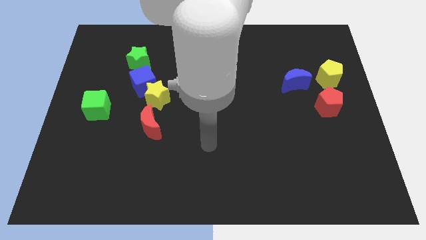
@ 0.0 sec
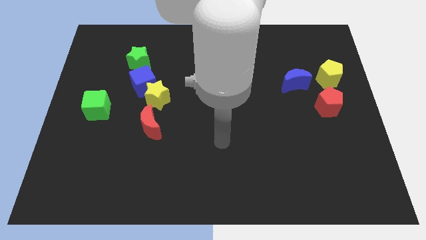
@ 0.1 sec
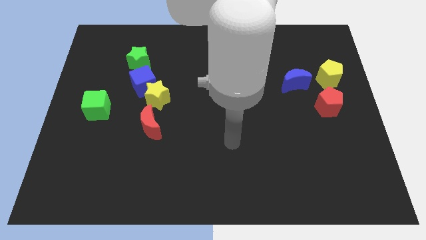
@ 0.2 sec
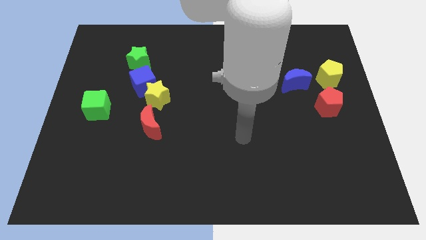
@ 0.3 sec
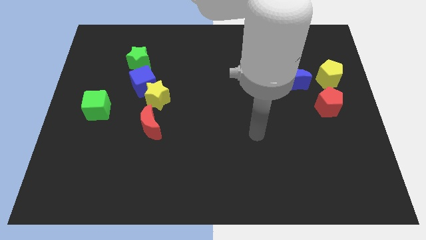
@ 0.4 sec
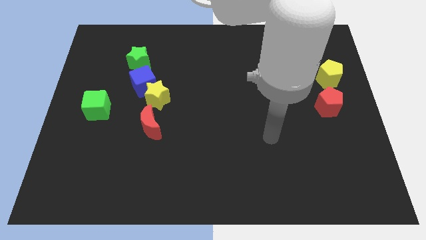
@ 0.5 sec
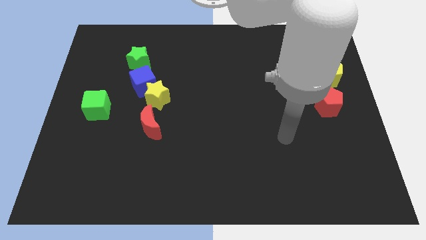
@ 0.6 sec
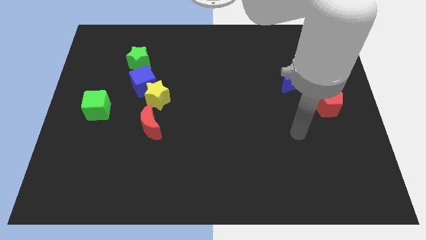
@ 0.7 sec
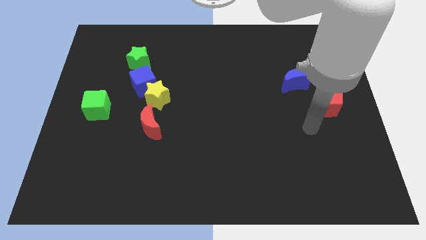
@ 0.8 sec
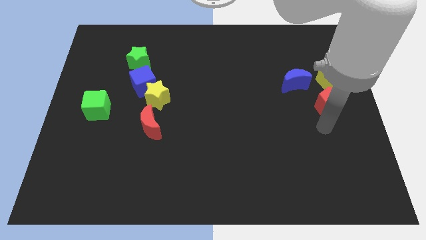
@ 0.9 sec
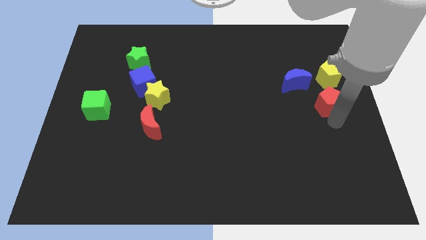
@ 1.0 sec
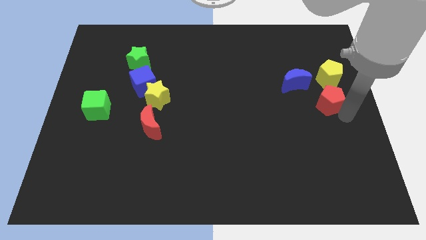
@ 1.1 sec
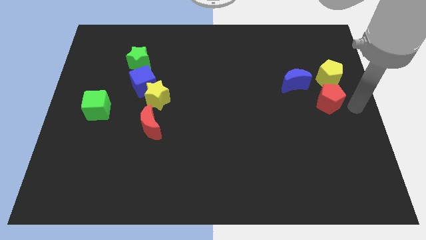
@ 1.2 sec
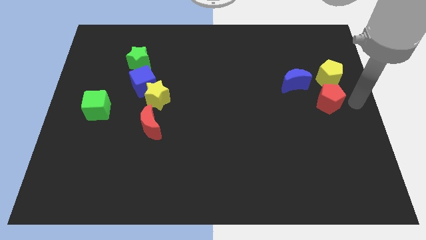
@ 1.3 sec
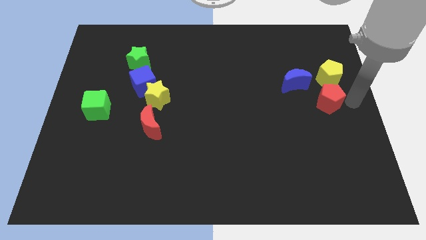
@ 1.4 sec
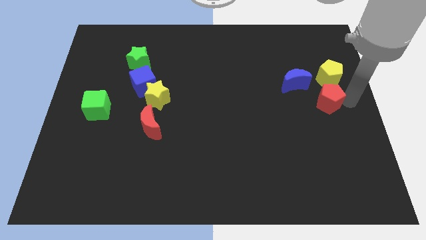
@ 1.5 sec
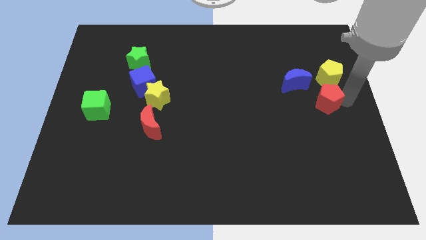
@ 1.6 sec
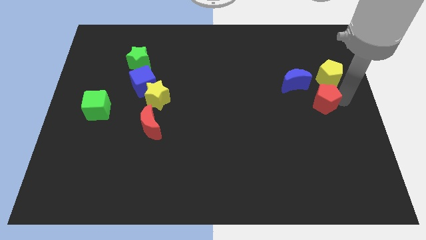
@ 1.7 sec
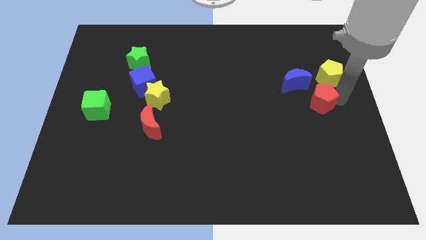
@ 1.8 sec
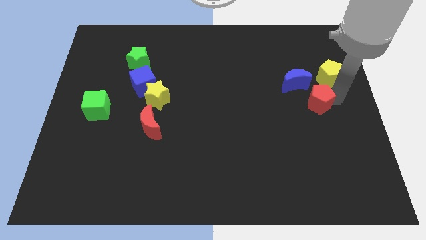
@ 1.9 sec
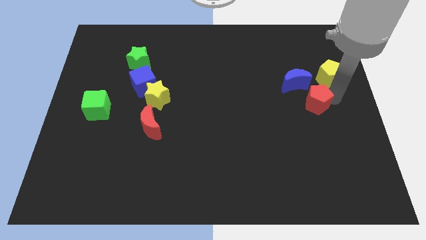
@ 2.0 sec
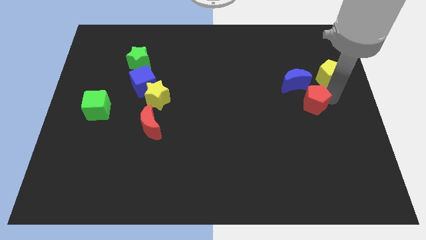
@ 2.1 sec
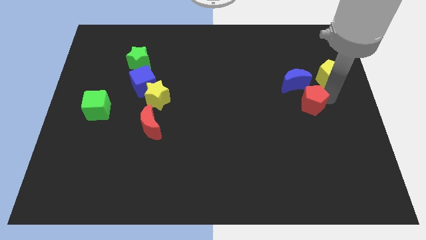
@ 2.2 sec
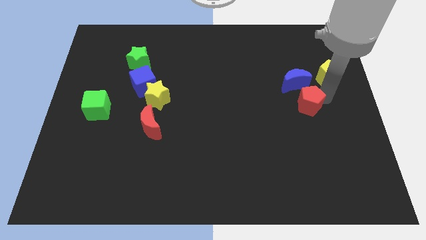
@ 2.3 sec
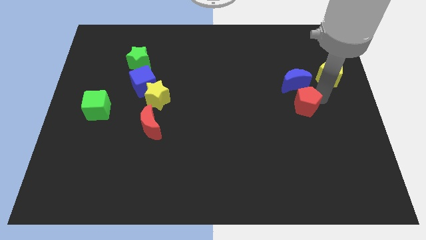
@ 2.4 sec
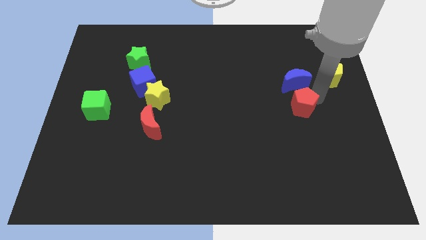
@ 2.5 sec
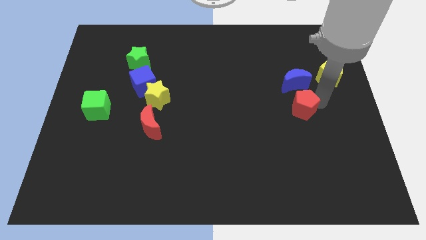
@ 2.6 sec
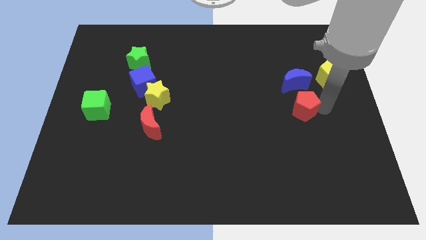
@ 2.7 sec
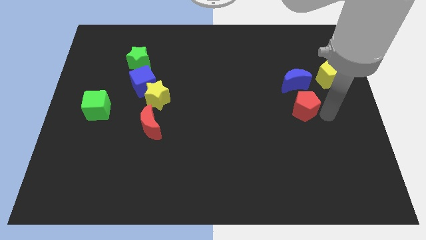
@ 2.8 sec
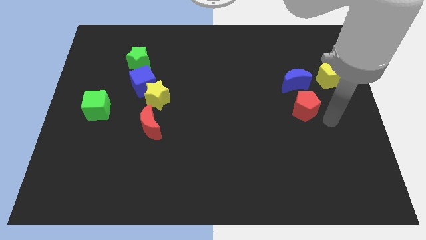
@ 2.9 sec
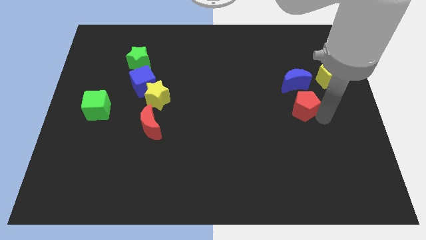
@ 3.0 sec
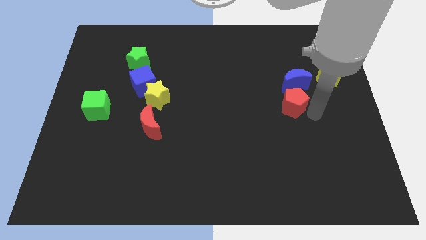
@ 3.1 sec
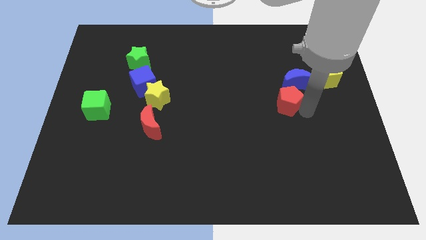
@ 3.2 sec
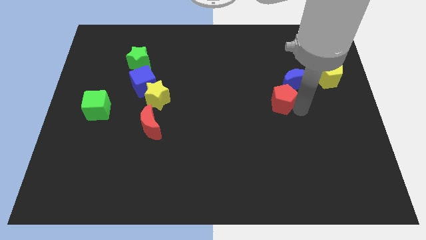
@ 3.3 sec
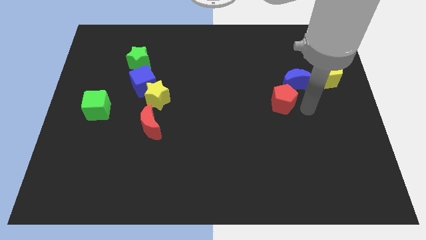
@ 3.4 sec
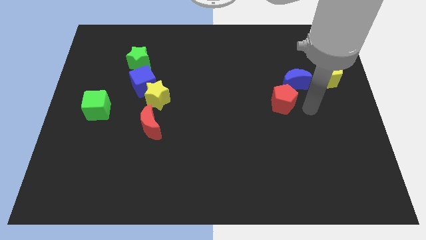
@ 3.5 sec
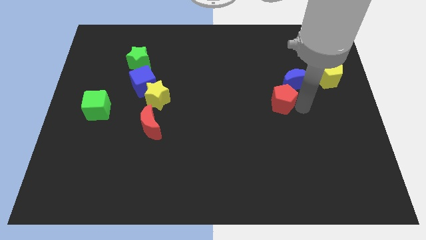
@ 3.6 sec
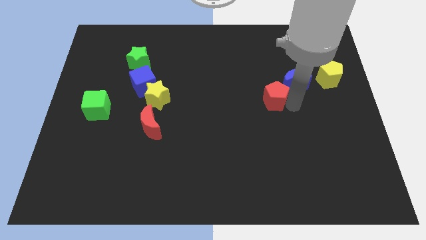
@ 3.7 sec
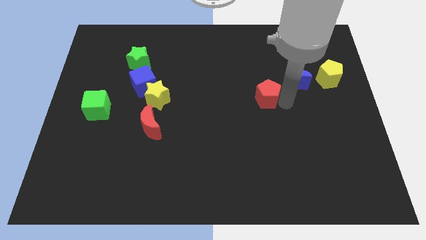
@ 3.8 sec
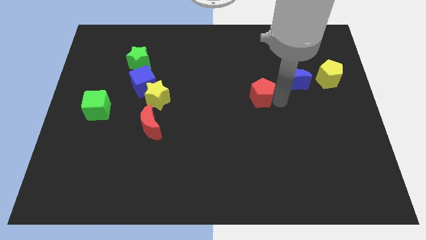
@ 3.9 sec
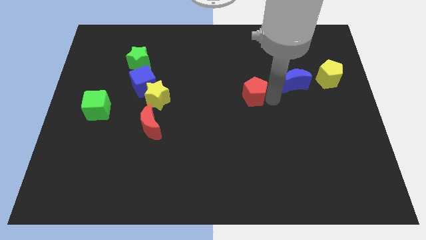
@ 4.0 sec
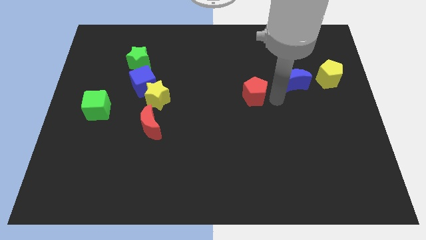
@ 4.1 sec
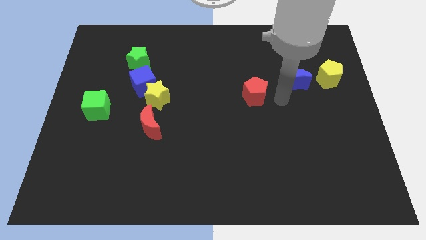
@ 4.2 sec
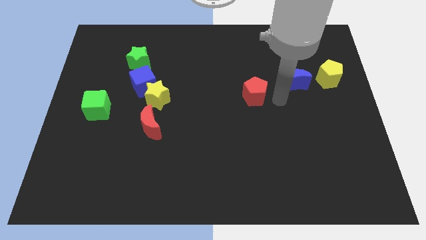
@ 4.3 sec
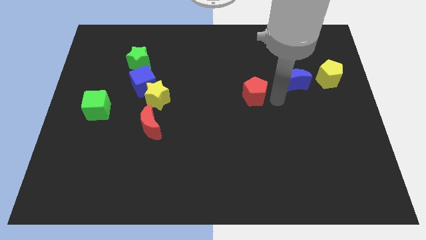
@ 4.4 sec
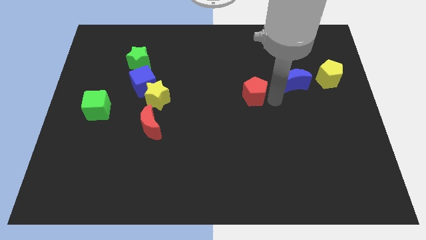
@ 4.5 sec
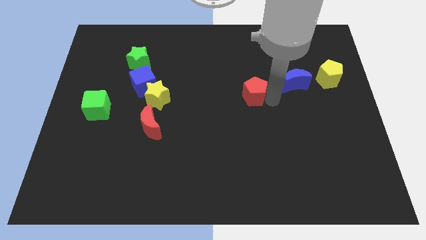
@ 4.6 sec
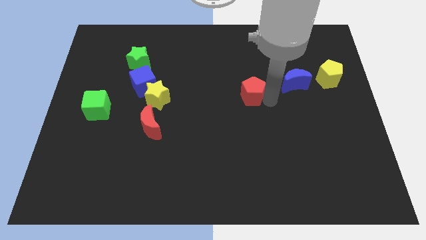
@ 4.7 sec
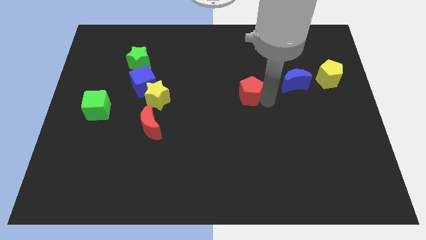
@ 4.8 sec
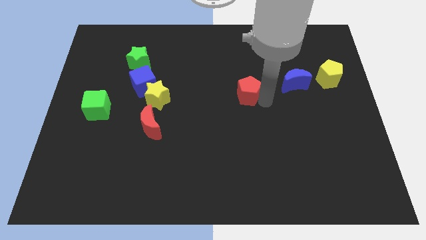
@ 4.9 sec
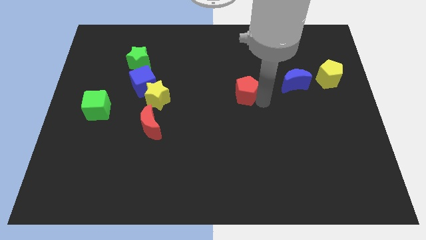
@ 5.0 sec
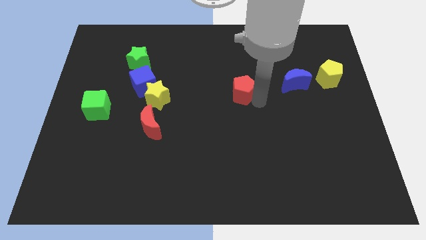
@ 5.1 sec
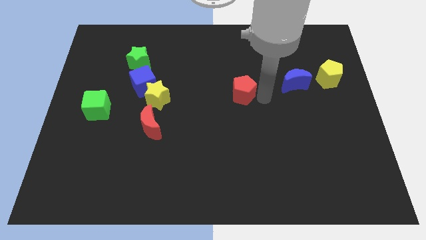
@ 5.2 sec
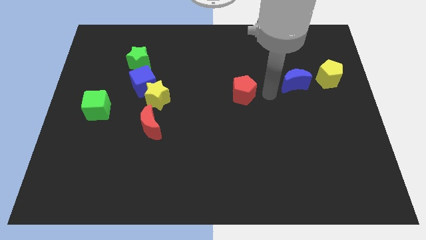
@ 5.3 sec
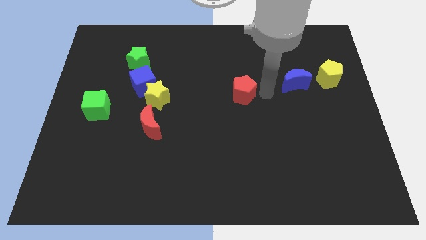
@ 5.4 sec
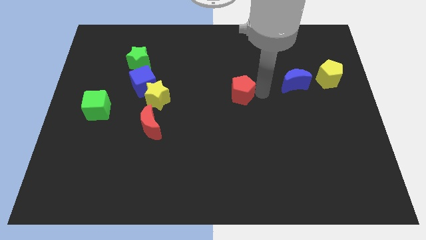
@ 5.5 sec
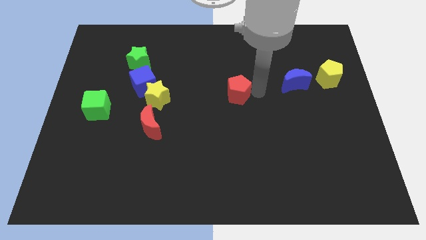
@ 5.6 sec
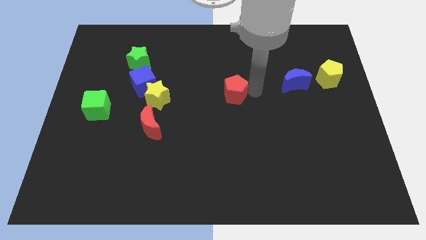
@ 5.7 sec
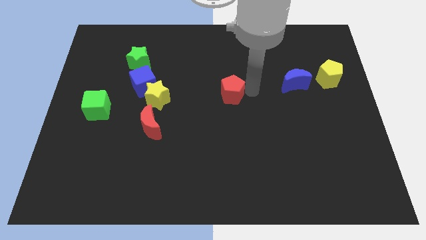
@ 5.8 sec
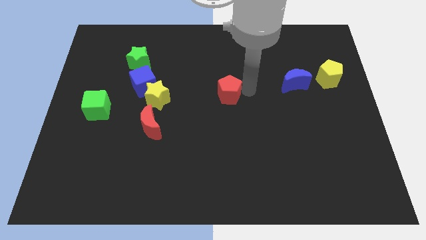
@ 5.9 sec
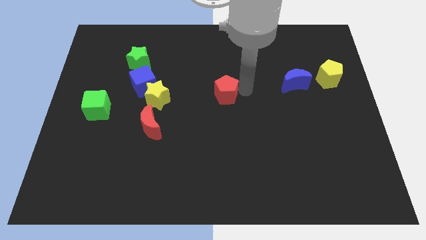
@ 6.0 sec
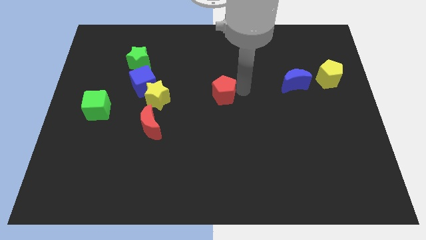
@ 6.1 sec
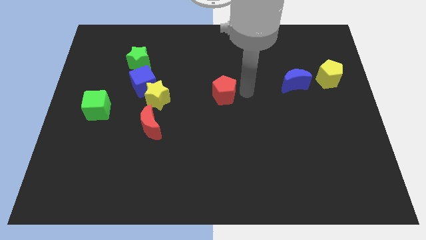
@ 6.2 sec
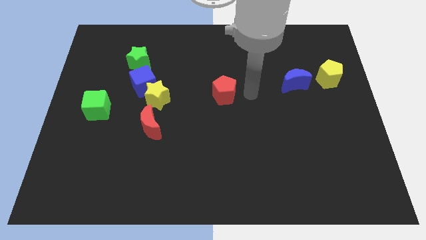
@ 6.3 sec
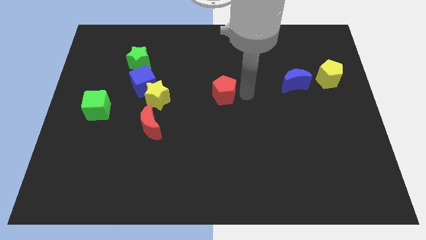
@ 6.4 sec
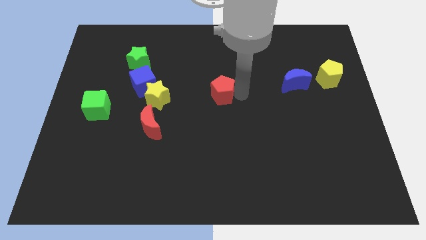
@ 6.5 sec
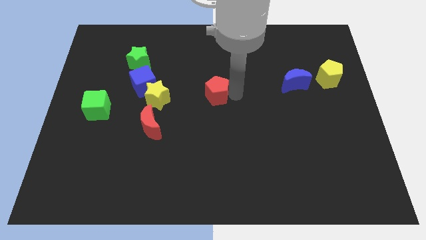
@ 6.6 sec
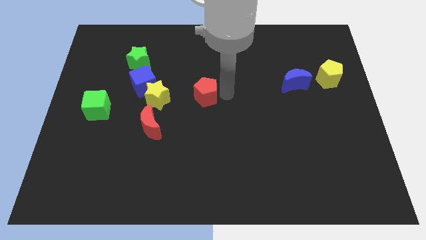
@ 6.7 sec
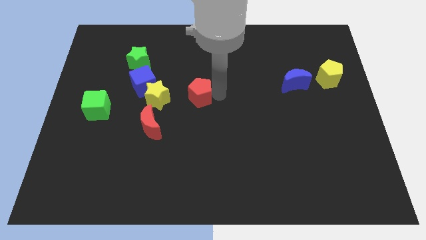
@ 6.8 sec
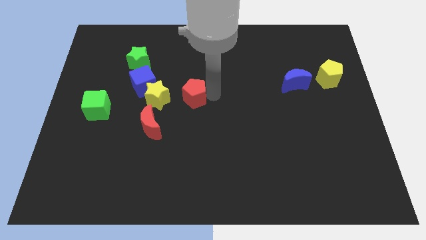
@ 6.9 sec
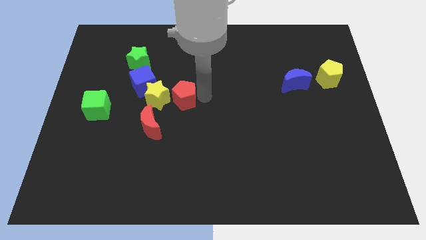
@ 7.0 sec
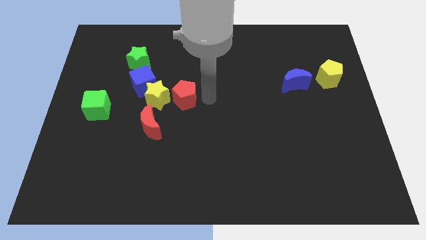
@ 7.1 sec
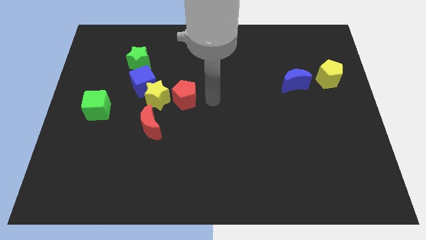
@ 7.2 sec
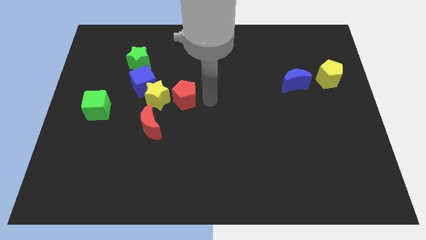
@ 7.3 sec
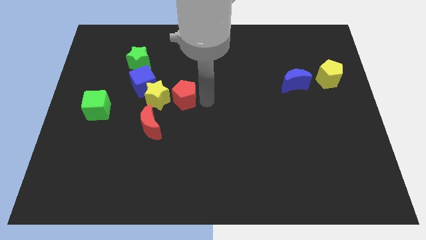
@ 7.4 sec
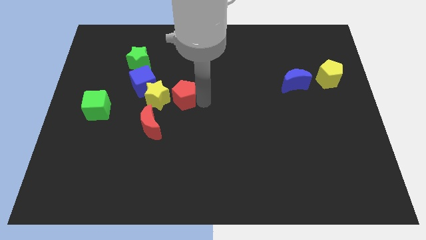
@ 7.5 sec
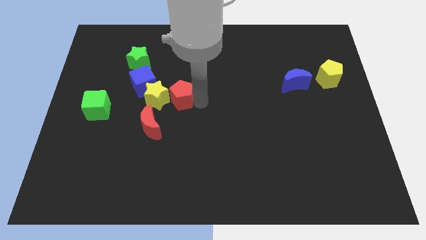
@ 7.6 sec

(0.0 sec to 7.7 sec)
slide the red pentagon towards the yellow star
